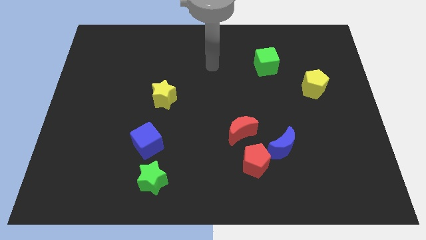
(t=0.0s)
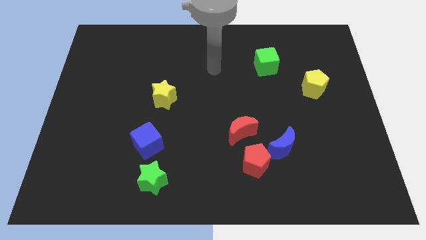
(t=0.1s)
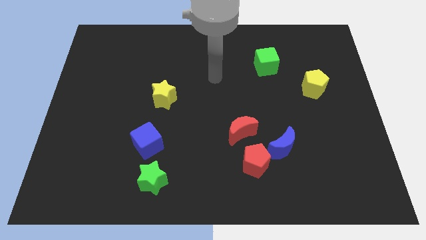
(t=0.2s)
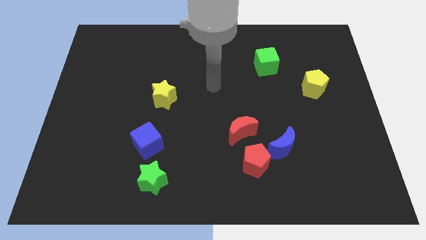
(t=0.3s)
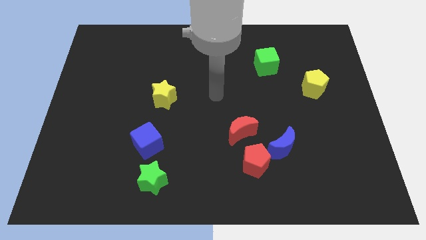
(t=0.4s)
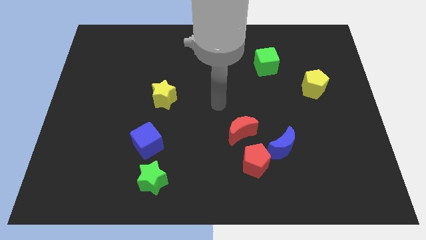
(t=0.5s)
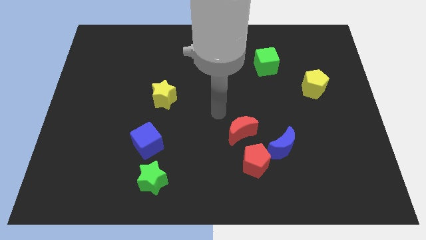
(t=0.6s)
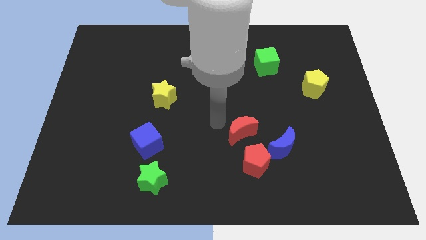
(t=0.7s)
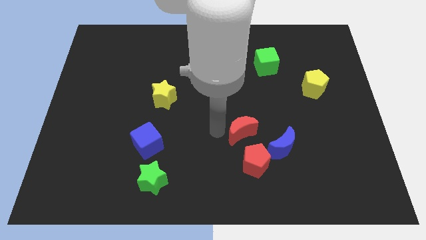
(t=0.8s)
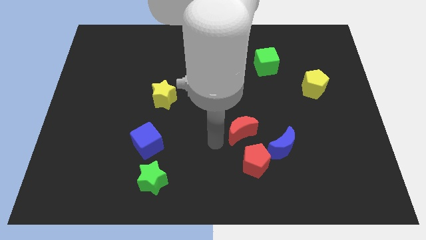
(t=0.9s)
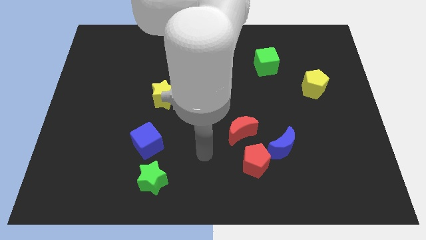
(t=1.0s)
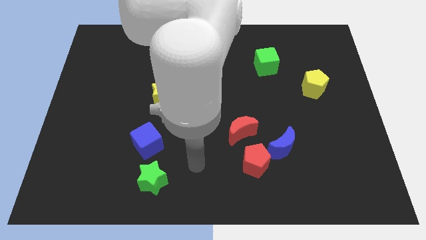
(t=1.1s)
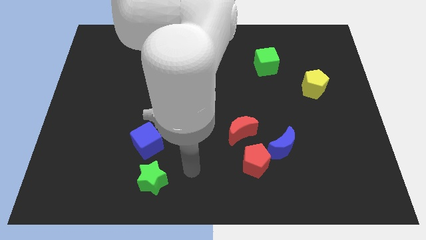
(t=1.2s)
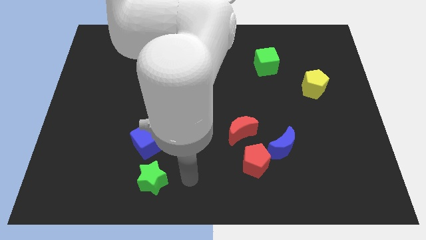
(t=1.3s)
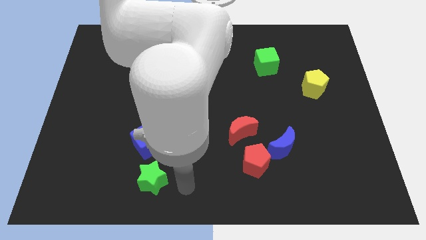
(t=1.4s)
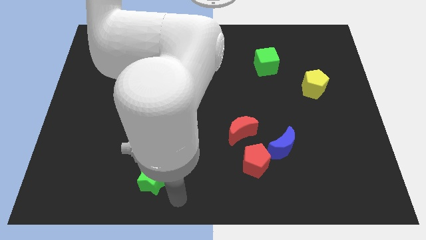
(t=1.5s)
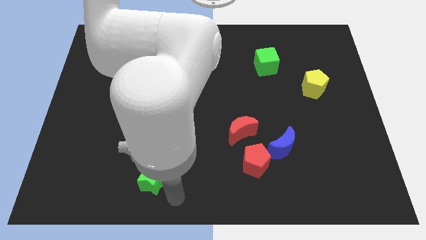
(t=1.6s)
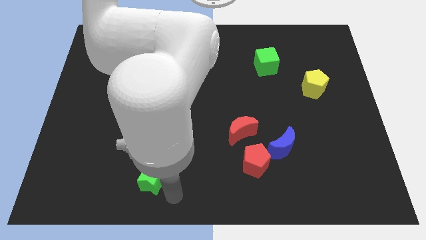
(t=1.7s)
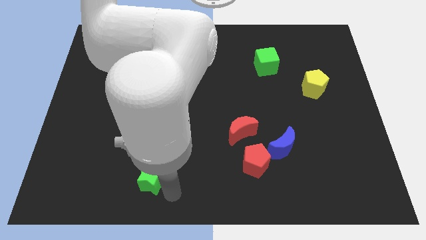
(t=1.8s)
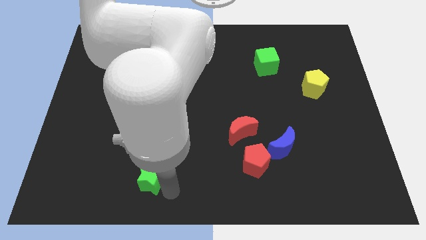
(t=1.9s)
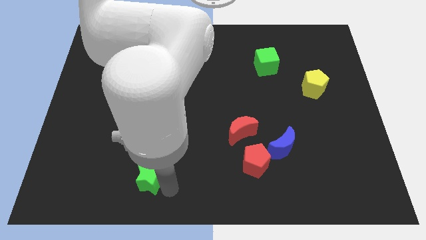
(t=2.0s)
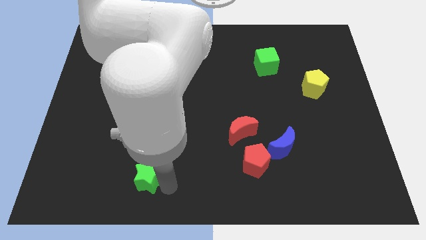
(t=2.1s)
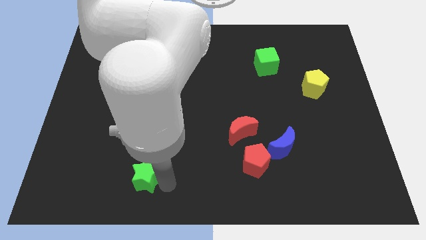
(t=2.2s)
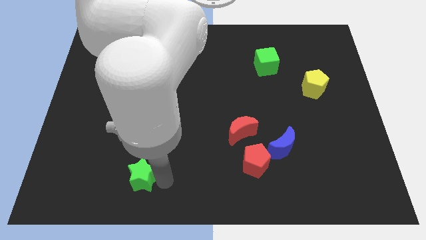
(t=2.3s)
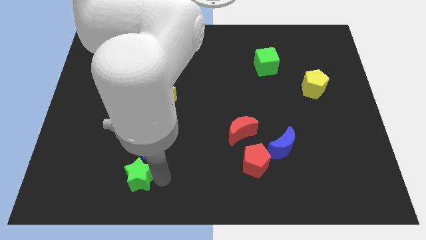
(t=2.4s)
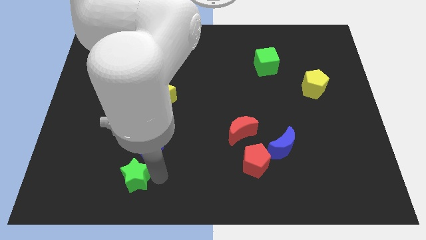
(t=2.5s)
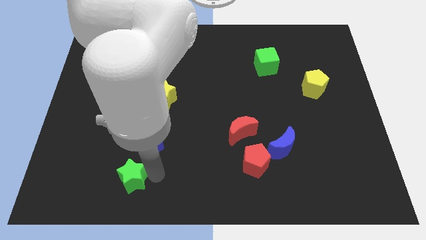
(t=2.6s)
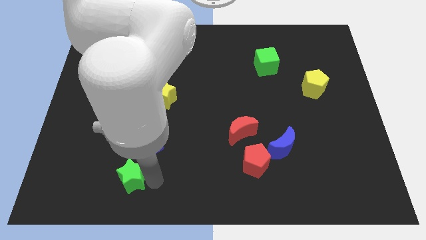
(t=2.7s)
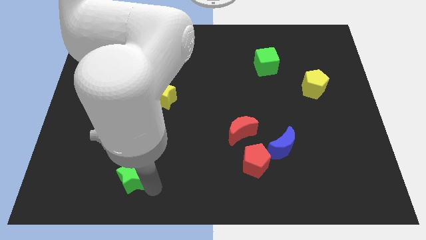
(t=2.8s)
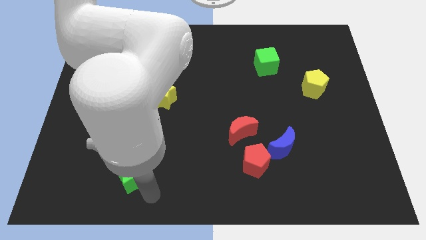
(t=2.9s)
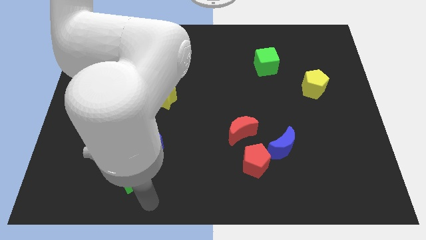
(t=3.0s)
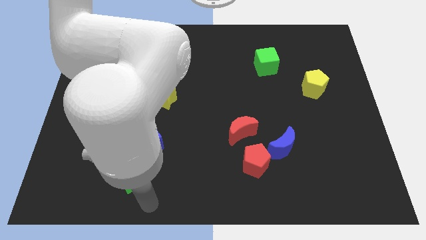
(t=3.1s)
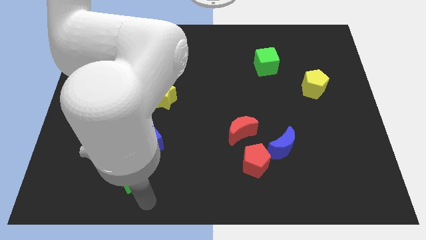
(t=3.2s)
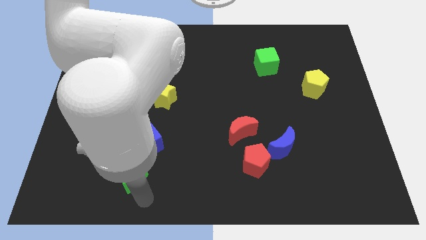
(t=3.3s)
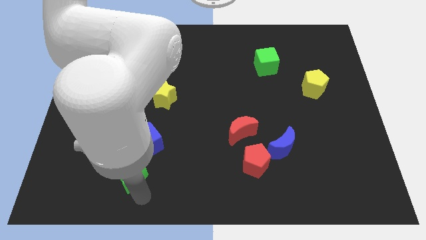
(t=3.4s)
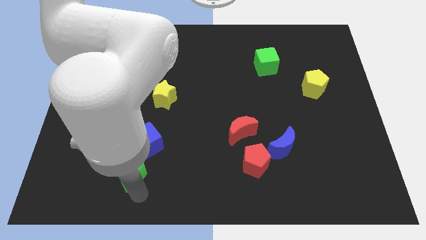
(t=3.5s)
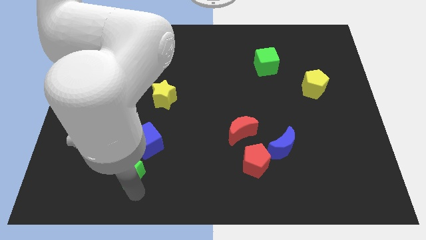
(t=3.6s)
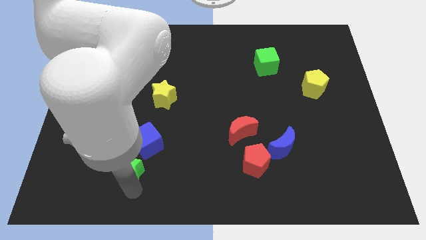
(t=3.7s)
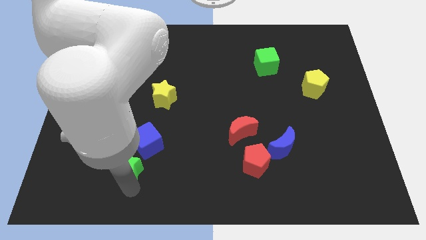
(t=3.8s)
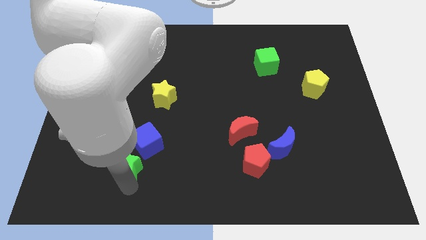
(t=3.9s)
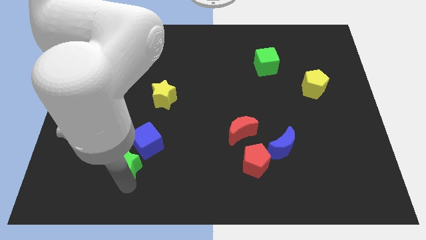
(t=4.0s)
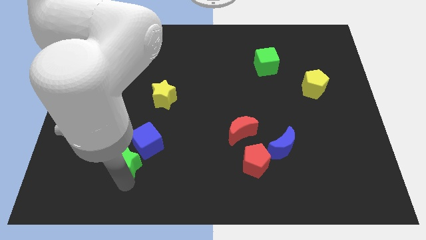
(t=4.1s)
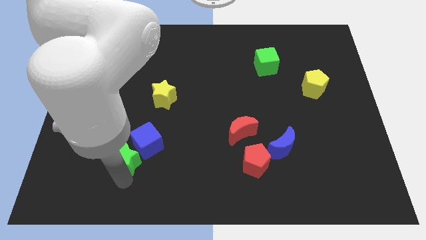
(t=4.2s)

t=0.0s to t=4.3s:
slightly push the green star upwards and then to the left

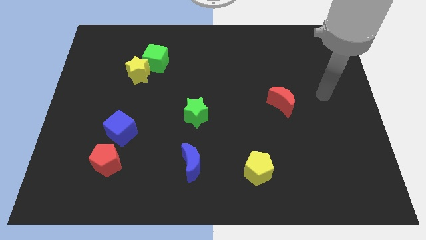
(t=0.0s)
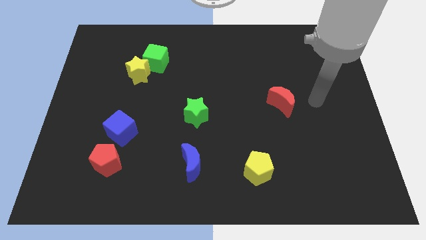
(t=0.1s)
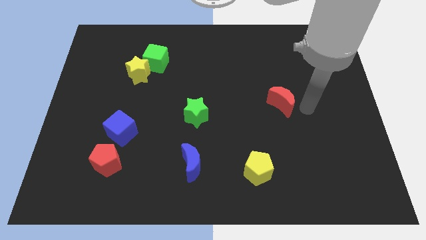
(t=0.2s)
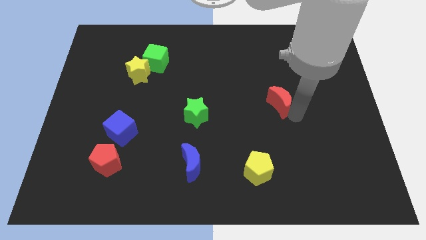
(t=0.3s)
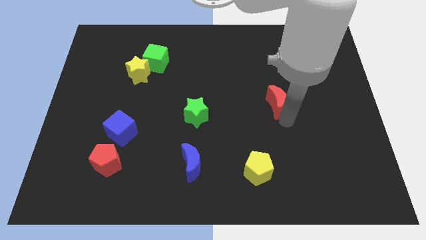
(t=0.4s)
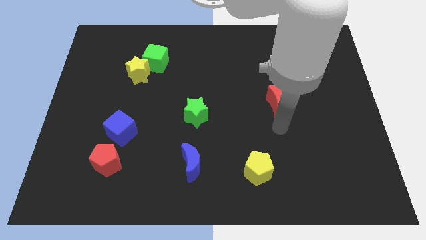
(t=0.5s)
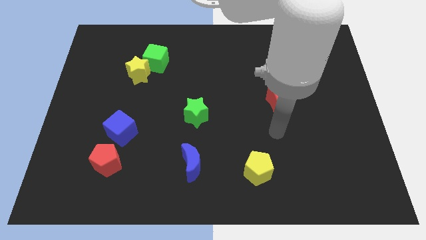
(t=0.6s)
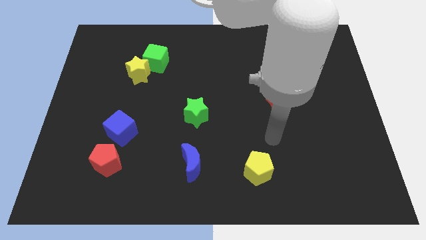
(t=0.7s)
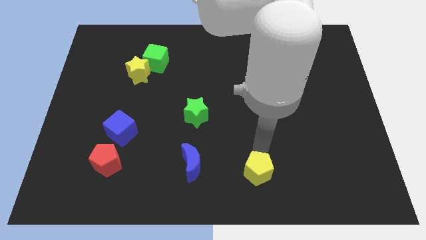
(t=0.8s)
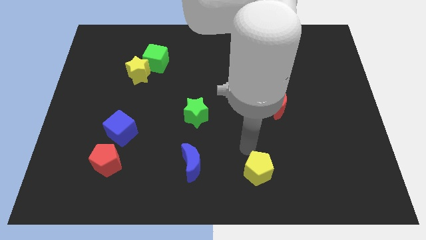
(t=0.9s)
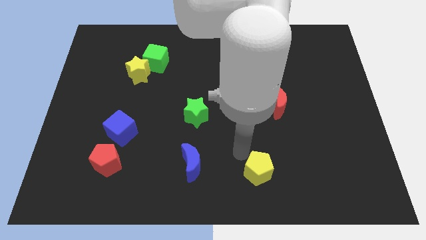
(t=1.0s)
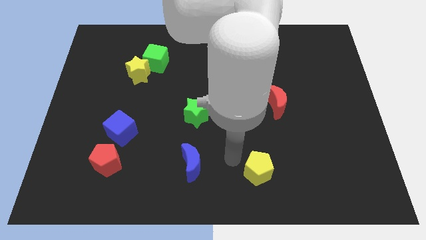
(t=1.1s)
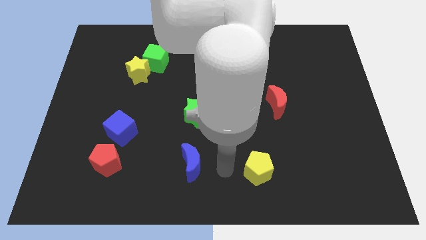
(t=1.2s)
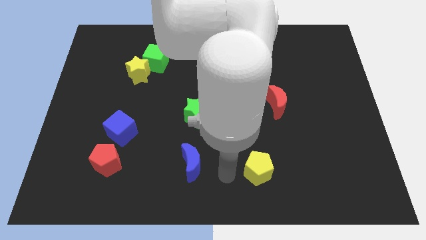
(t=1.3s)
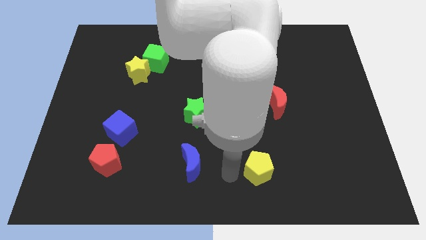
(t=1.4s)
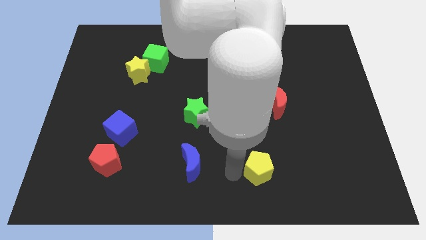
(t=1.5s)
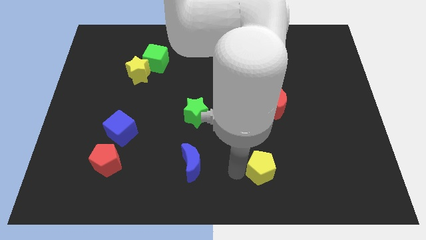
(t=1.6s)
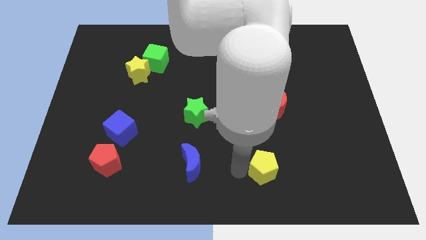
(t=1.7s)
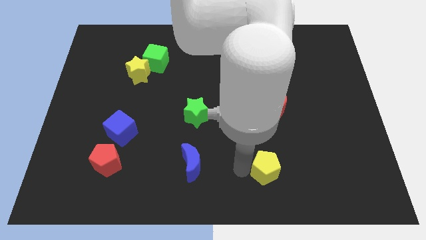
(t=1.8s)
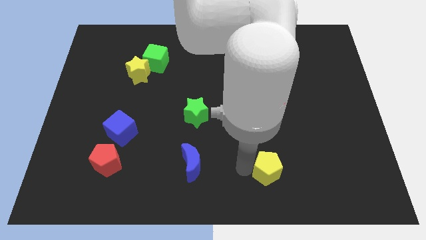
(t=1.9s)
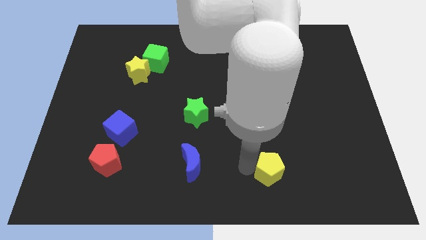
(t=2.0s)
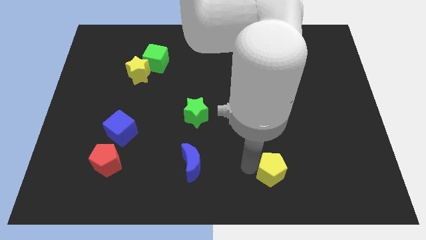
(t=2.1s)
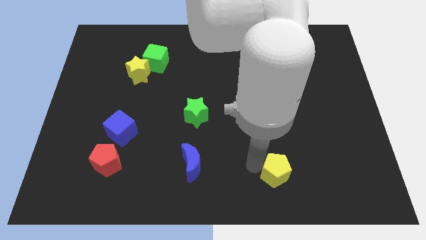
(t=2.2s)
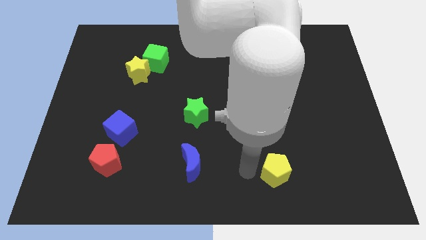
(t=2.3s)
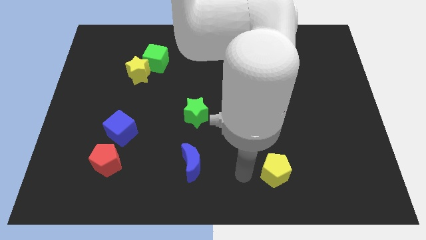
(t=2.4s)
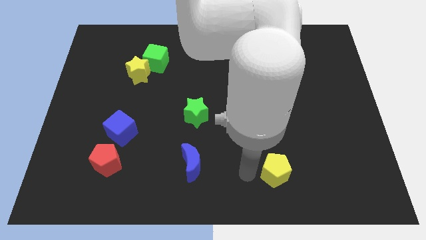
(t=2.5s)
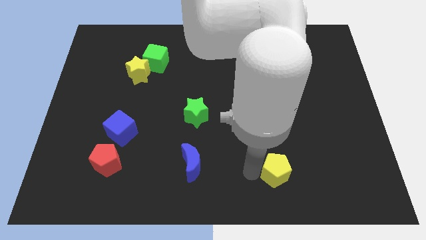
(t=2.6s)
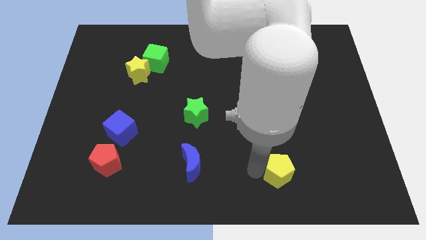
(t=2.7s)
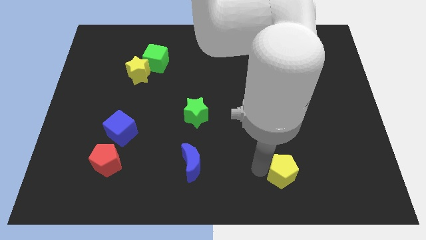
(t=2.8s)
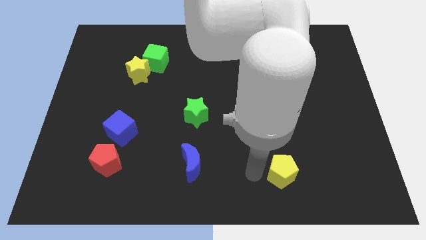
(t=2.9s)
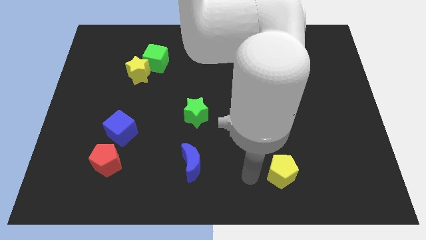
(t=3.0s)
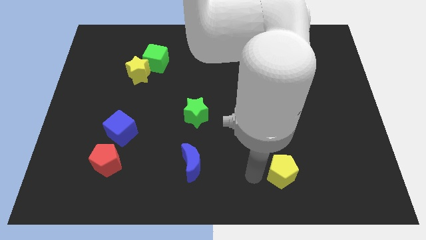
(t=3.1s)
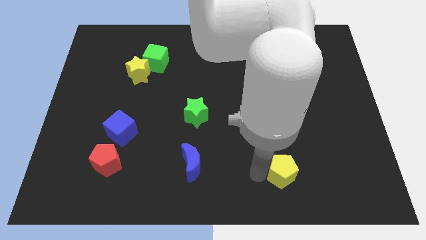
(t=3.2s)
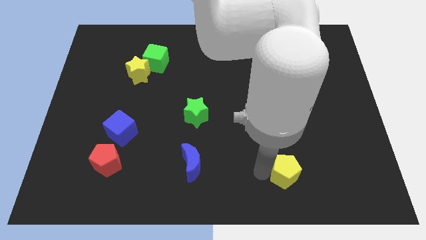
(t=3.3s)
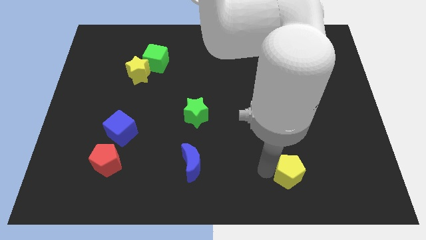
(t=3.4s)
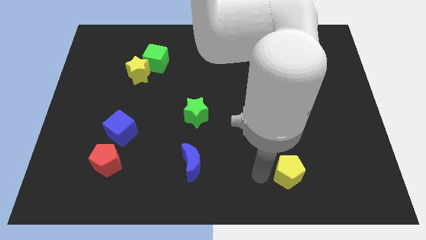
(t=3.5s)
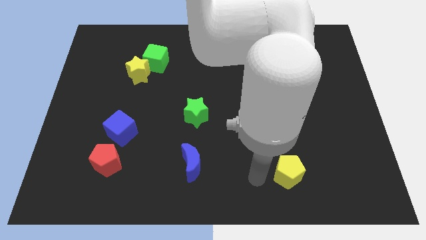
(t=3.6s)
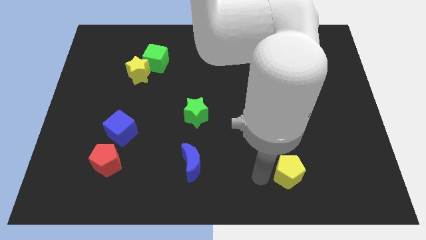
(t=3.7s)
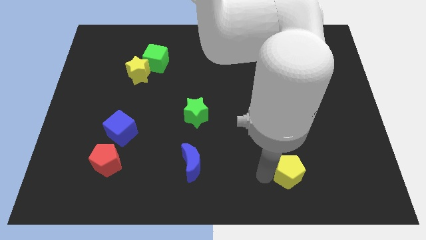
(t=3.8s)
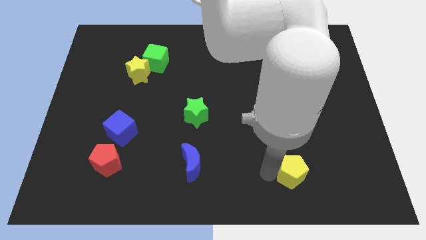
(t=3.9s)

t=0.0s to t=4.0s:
slide the yellow pentagon a little bit right
